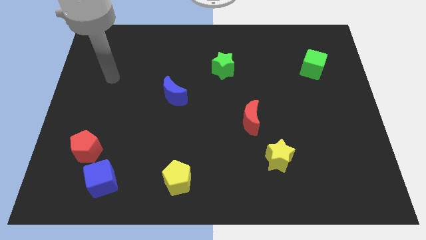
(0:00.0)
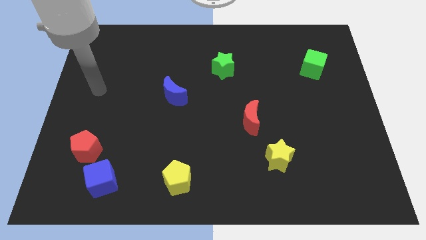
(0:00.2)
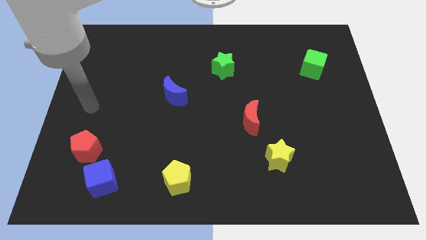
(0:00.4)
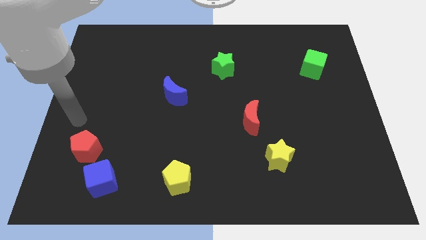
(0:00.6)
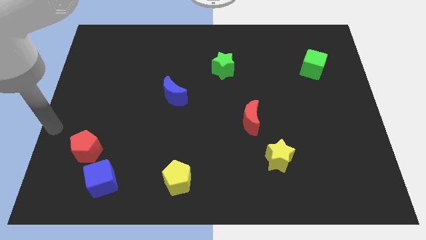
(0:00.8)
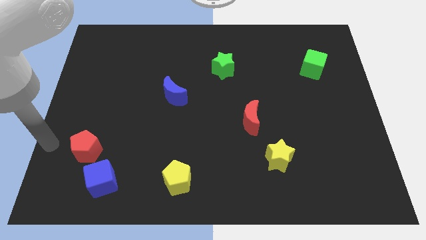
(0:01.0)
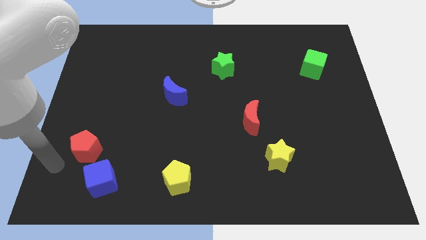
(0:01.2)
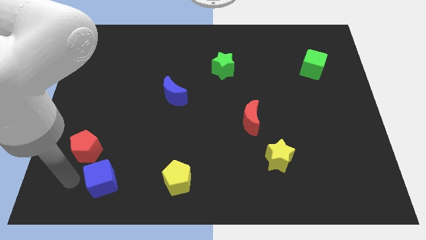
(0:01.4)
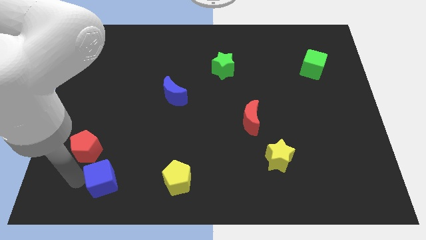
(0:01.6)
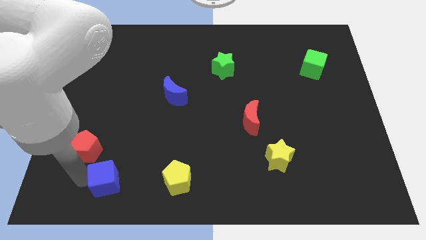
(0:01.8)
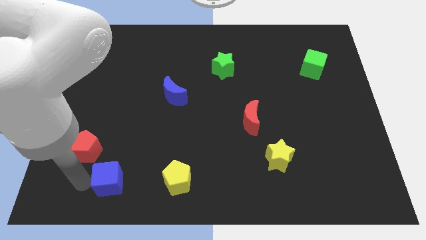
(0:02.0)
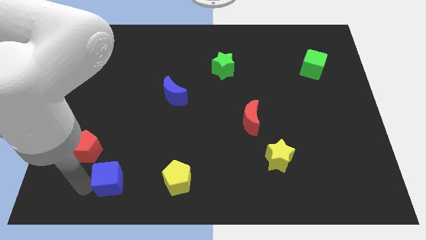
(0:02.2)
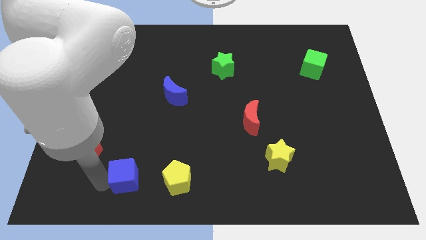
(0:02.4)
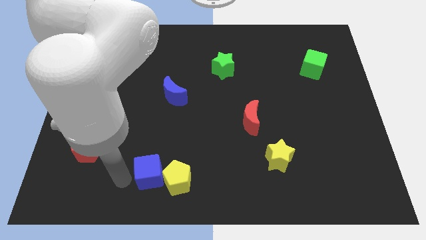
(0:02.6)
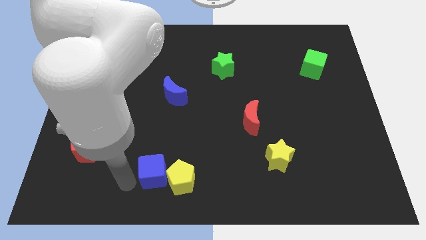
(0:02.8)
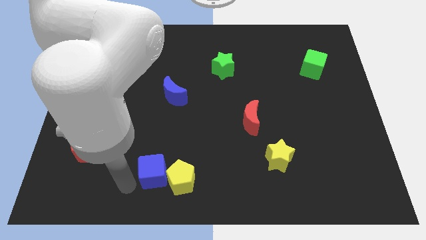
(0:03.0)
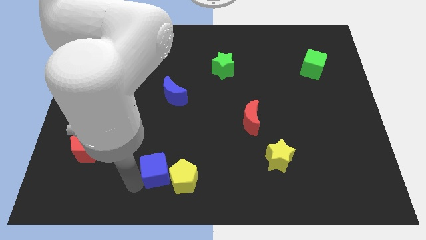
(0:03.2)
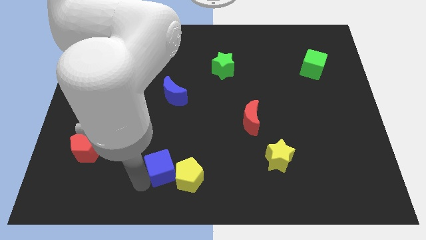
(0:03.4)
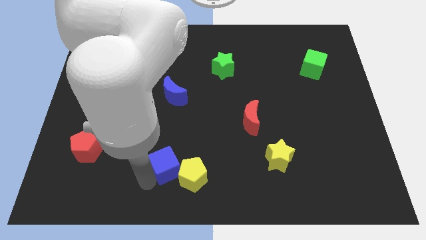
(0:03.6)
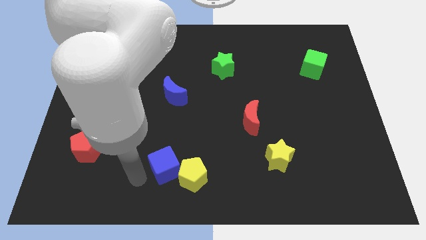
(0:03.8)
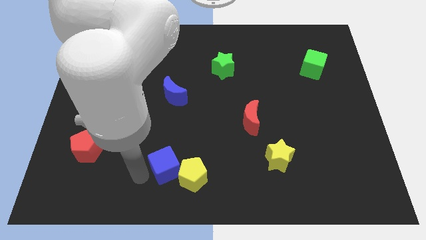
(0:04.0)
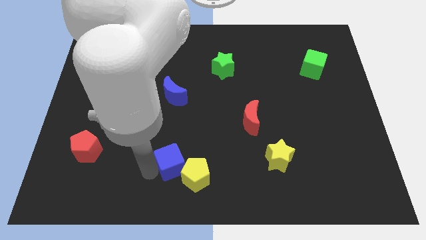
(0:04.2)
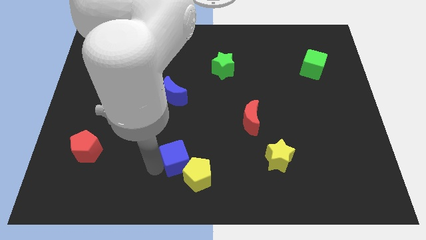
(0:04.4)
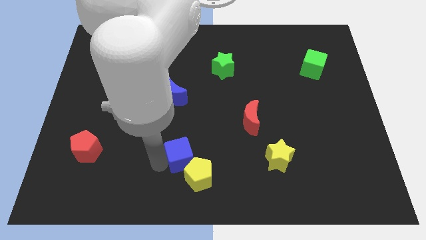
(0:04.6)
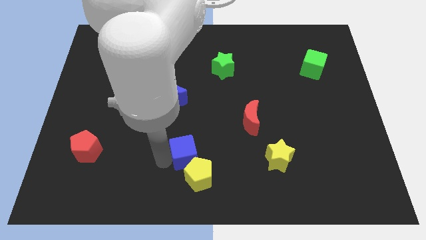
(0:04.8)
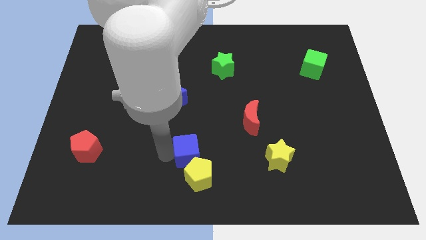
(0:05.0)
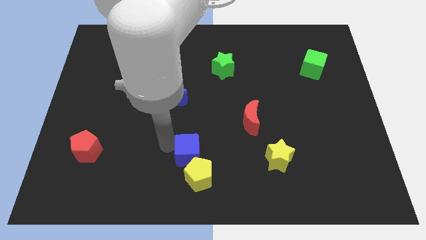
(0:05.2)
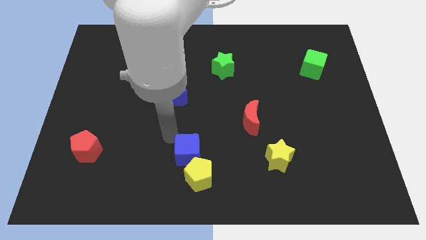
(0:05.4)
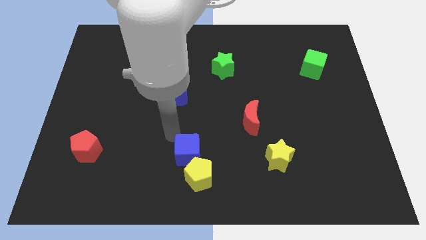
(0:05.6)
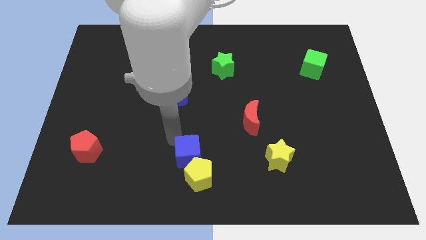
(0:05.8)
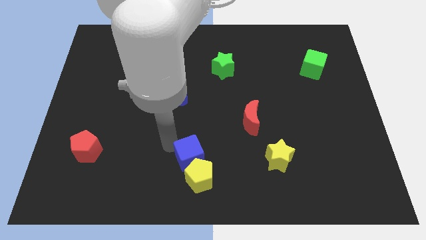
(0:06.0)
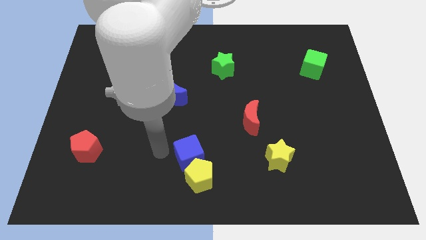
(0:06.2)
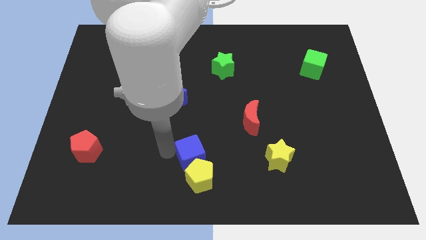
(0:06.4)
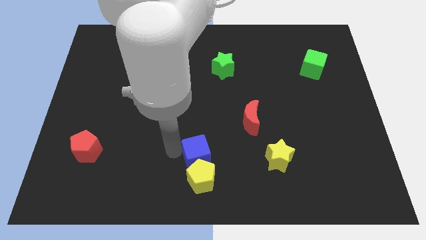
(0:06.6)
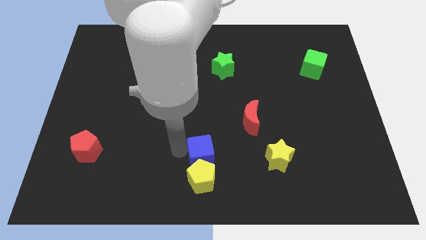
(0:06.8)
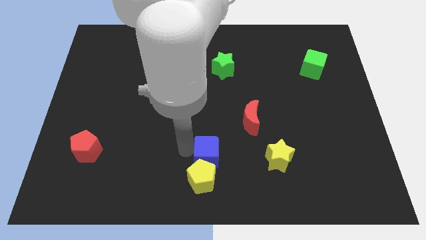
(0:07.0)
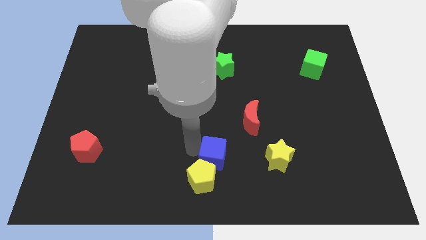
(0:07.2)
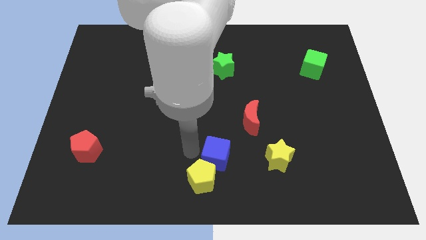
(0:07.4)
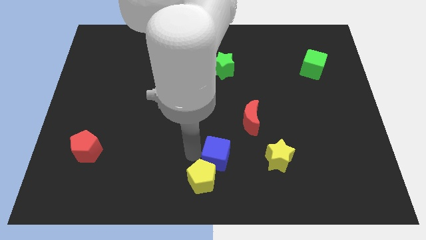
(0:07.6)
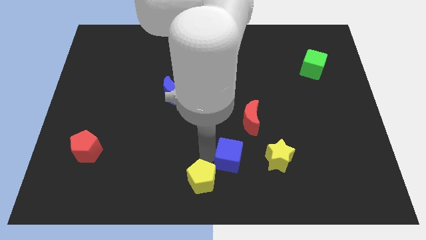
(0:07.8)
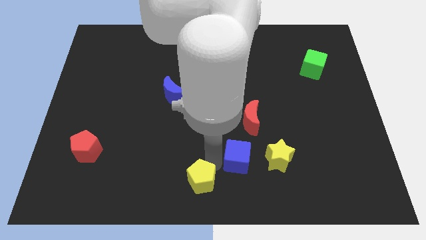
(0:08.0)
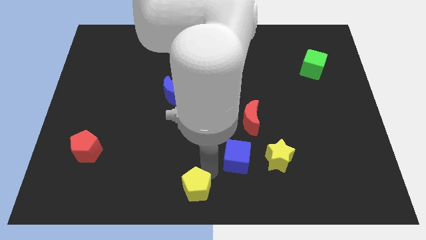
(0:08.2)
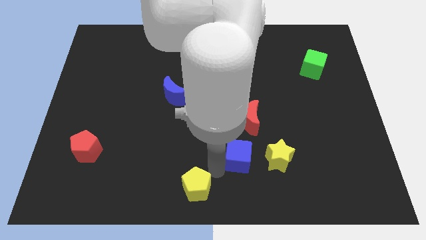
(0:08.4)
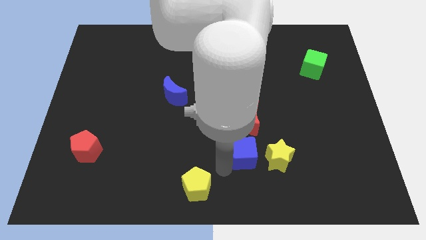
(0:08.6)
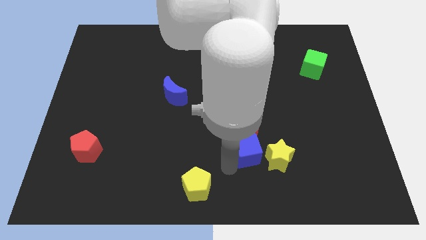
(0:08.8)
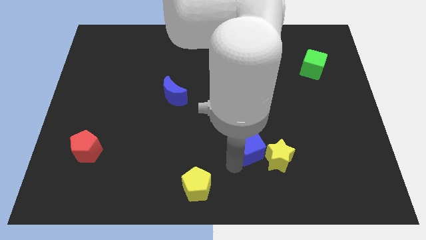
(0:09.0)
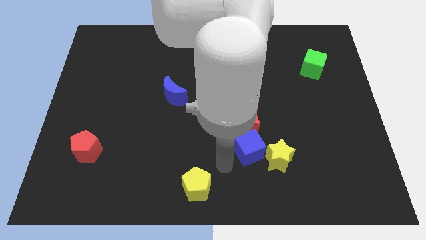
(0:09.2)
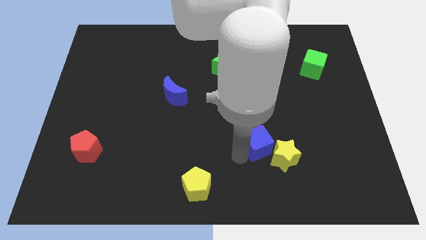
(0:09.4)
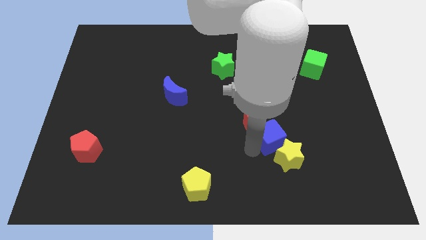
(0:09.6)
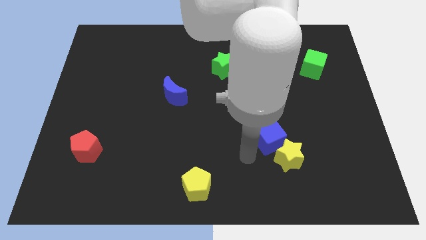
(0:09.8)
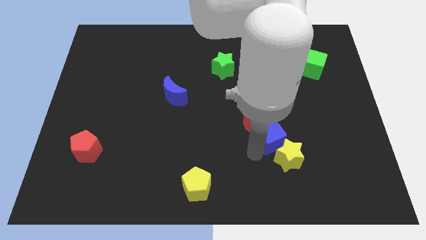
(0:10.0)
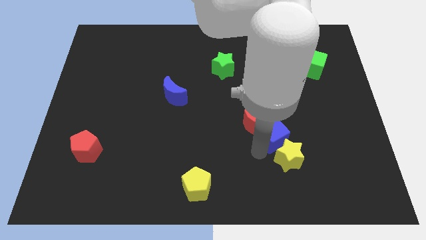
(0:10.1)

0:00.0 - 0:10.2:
push the blue cube to the right of the red moon

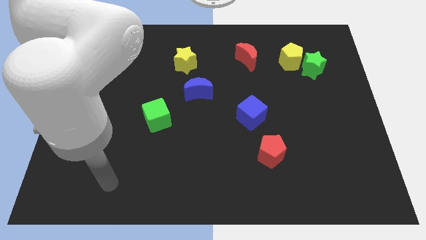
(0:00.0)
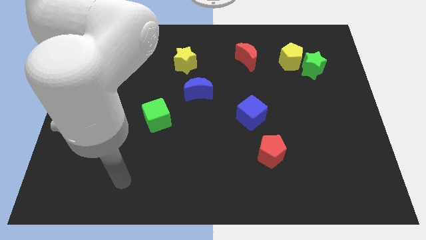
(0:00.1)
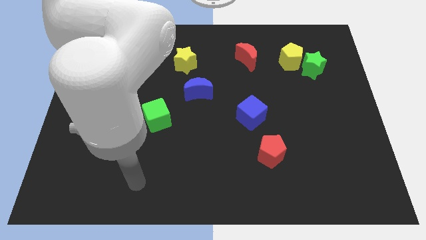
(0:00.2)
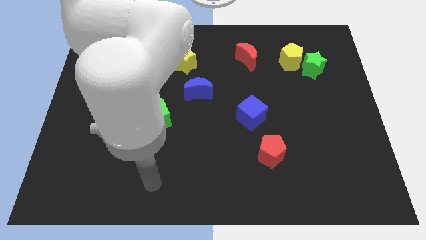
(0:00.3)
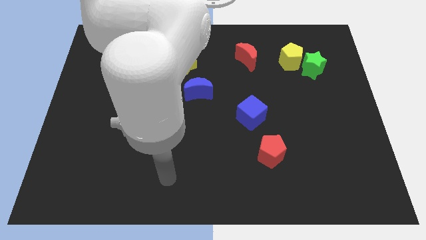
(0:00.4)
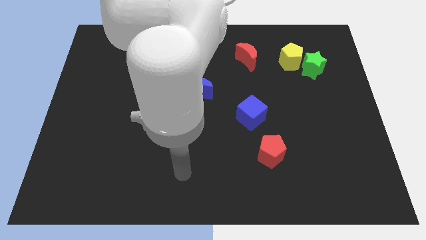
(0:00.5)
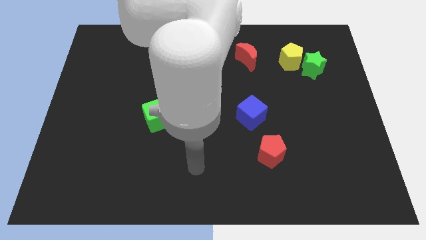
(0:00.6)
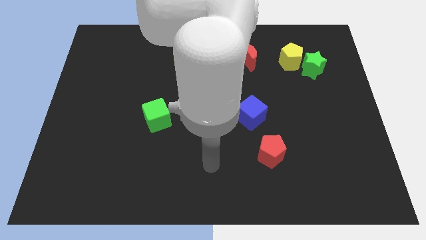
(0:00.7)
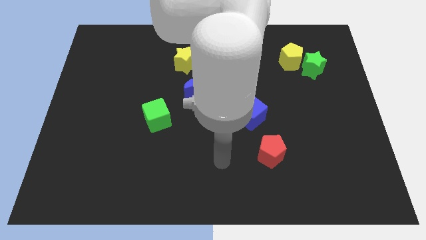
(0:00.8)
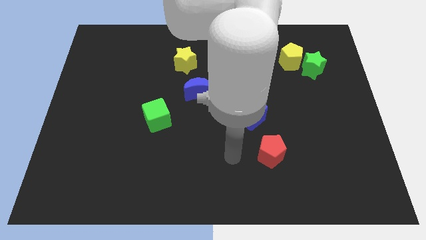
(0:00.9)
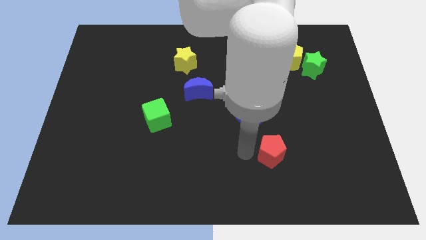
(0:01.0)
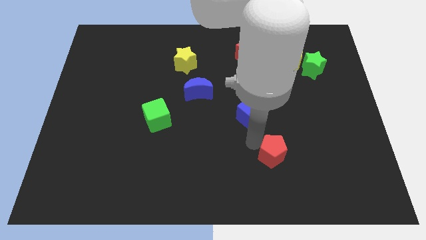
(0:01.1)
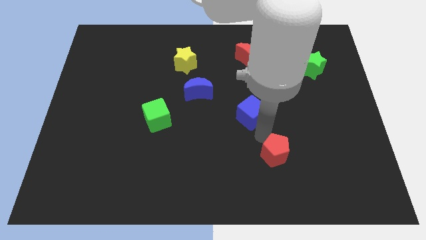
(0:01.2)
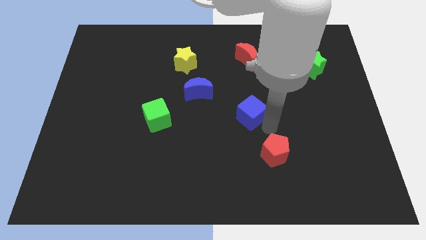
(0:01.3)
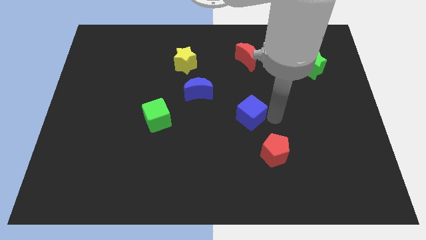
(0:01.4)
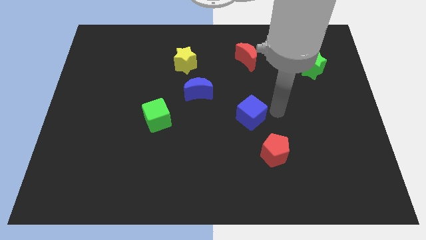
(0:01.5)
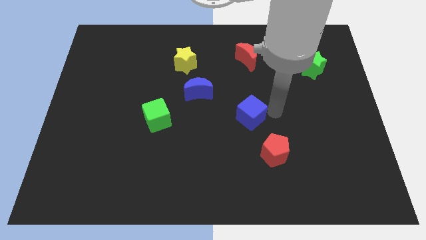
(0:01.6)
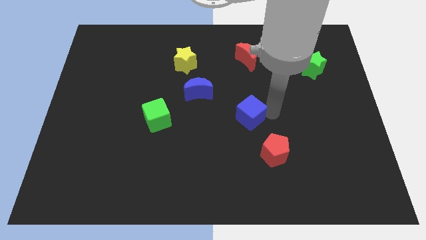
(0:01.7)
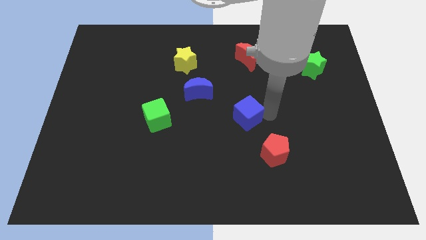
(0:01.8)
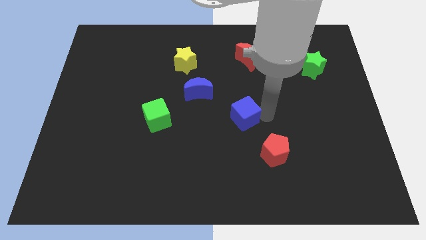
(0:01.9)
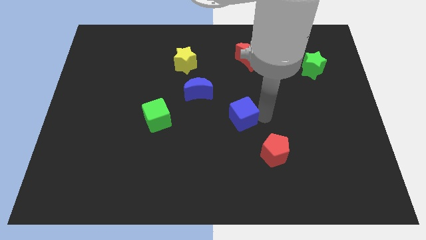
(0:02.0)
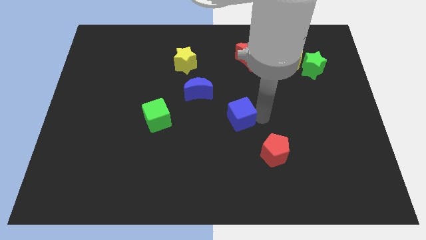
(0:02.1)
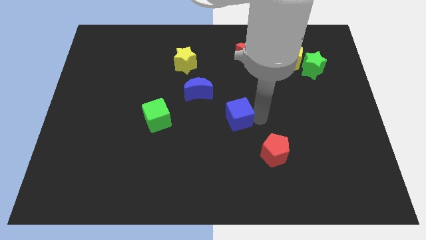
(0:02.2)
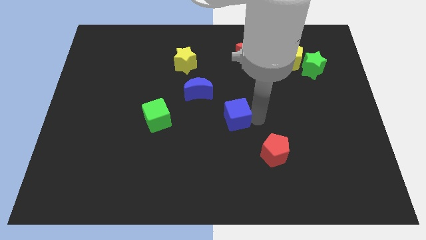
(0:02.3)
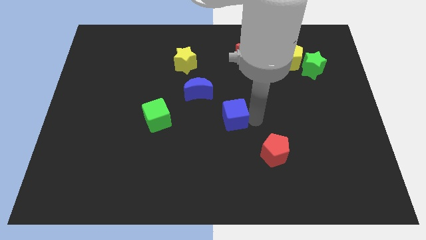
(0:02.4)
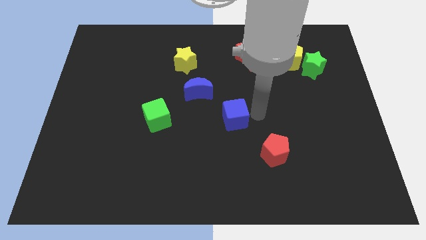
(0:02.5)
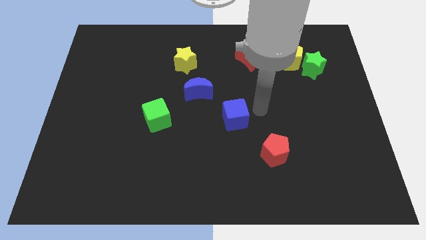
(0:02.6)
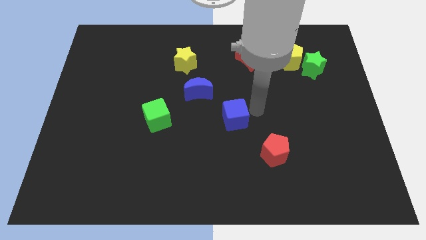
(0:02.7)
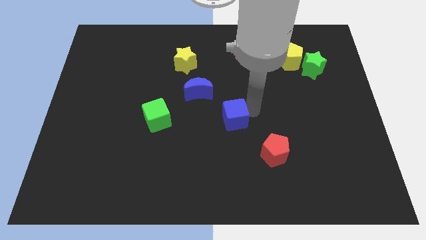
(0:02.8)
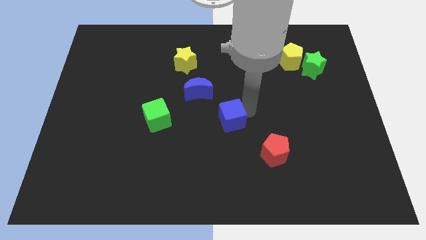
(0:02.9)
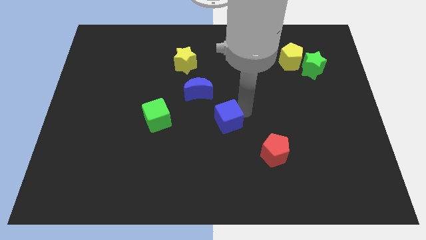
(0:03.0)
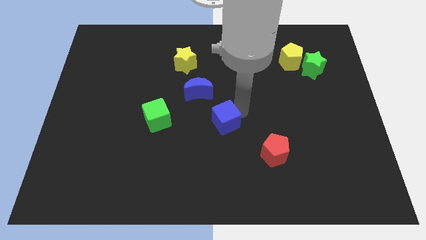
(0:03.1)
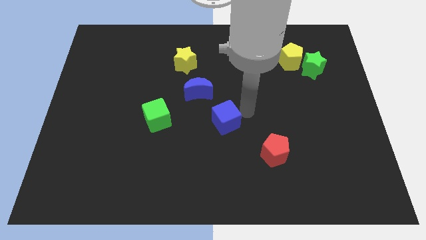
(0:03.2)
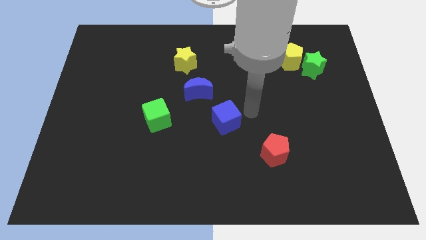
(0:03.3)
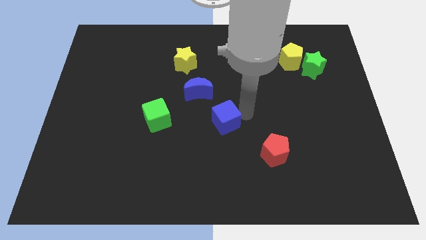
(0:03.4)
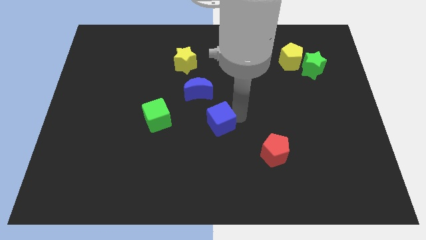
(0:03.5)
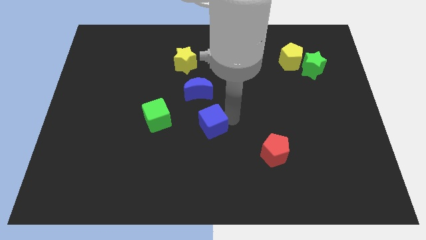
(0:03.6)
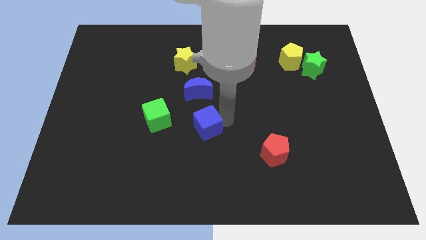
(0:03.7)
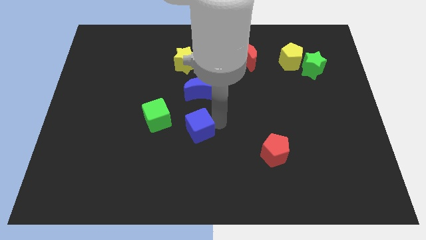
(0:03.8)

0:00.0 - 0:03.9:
put the blue cube to the bottom right of the green cube
